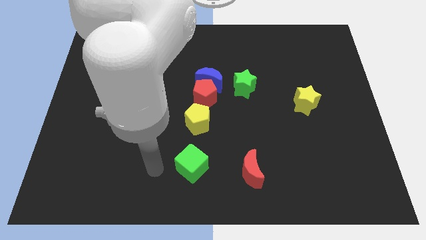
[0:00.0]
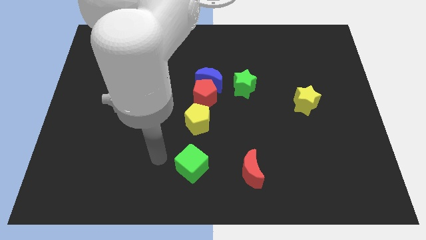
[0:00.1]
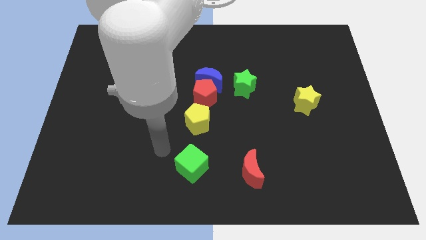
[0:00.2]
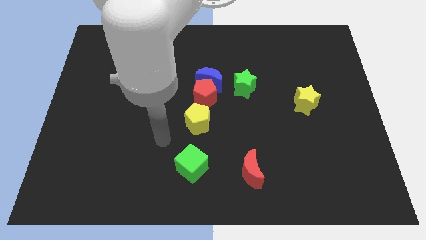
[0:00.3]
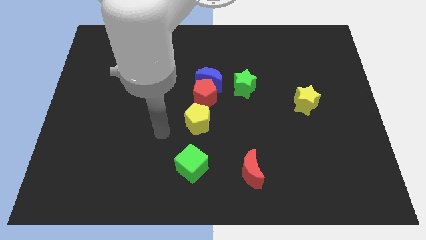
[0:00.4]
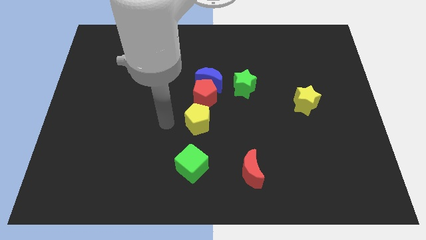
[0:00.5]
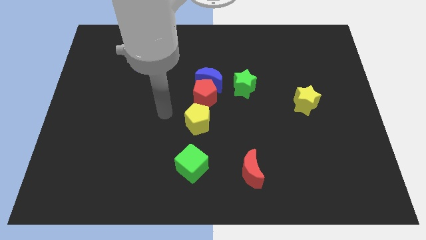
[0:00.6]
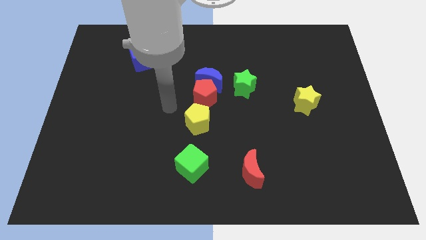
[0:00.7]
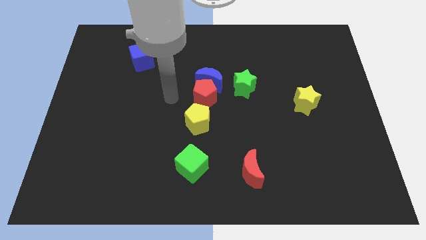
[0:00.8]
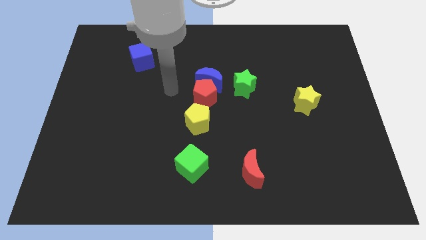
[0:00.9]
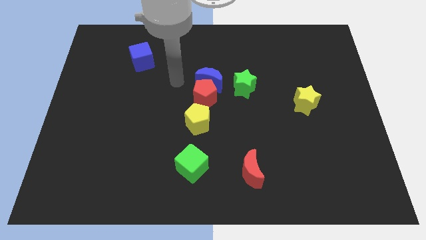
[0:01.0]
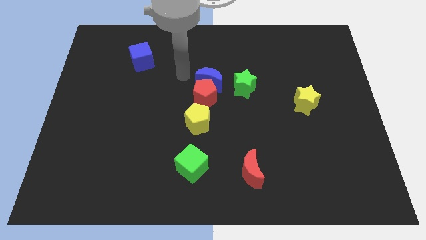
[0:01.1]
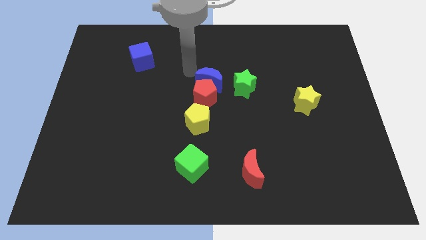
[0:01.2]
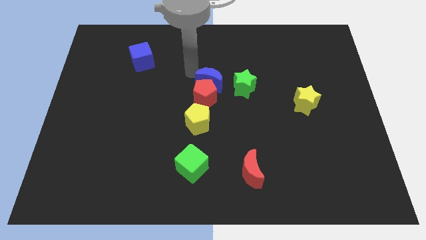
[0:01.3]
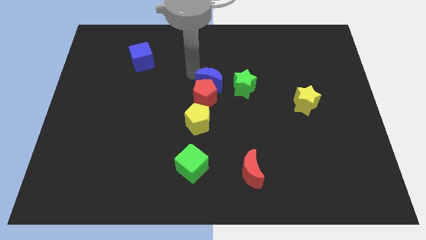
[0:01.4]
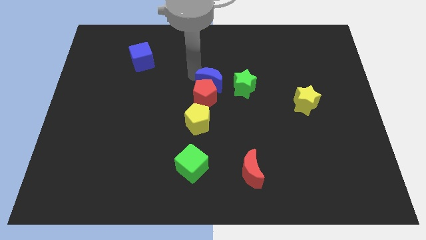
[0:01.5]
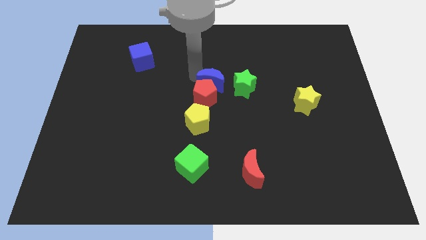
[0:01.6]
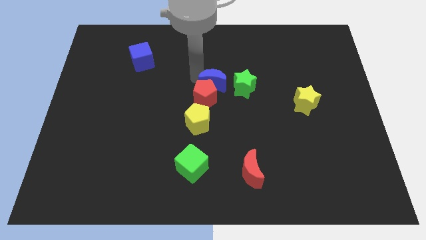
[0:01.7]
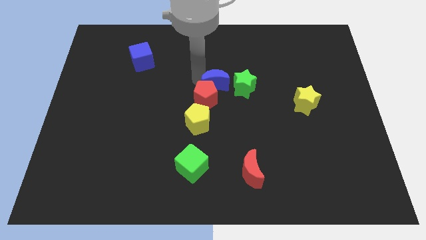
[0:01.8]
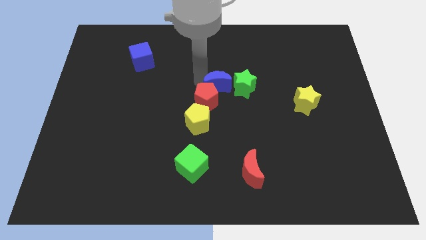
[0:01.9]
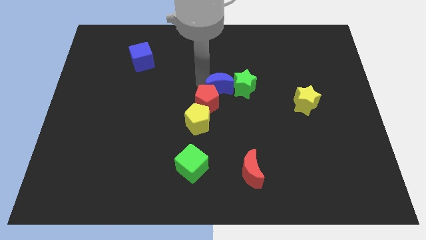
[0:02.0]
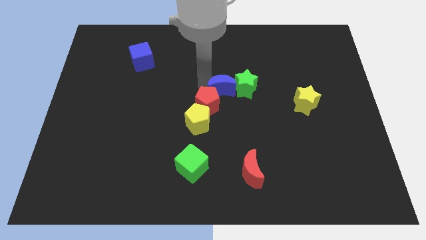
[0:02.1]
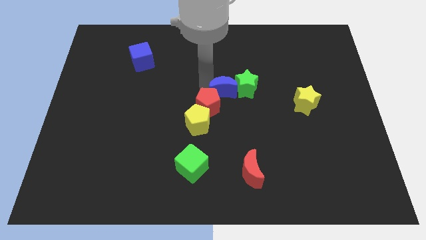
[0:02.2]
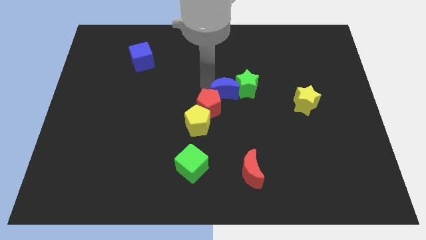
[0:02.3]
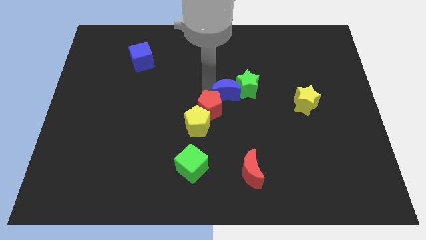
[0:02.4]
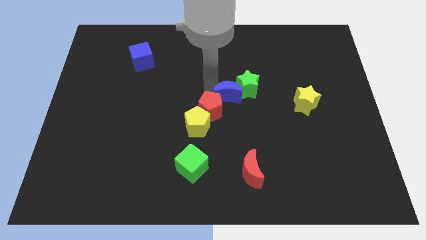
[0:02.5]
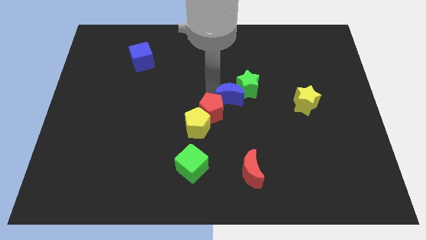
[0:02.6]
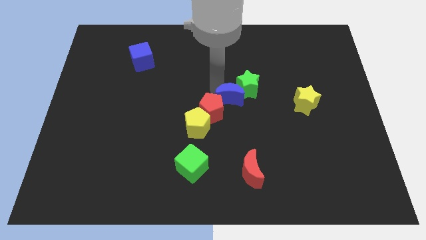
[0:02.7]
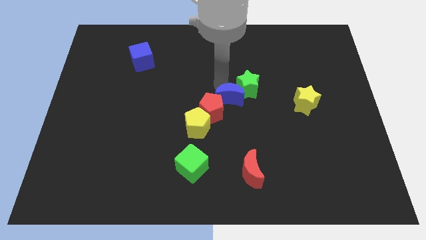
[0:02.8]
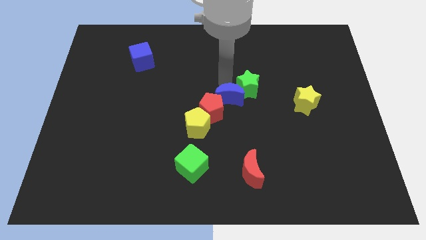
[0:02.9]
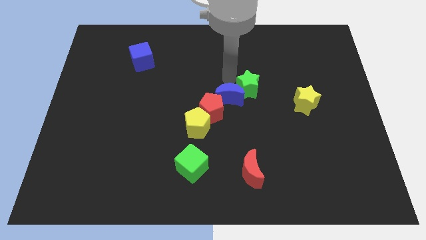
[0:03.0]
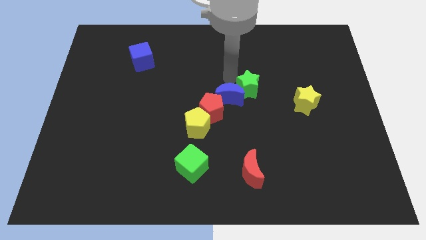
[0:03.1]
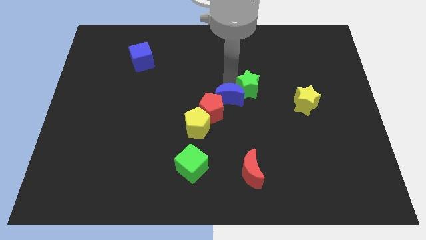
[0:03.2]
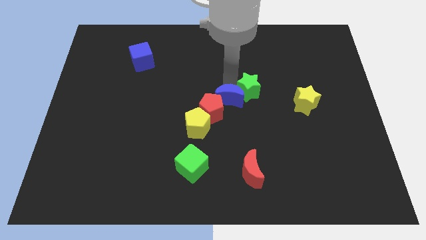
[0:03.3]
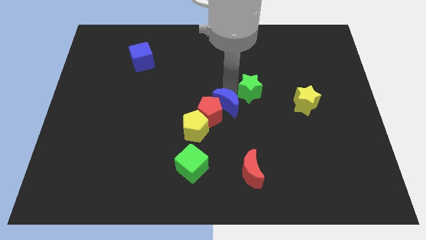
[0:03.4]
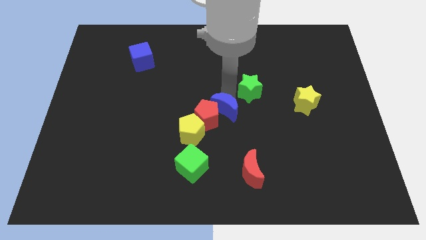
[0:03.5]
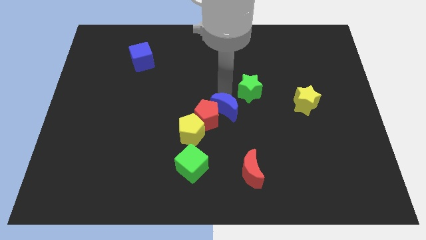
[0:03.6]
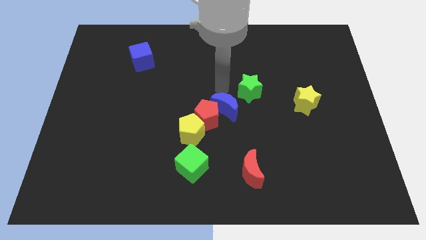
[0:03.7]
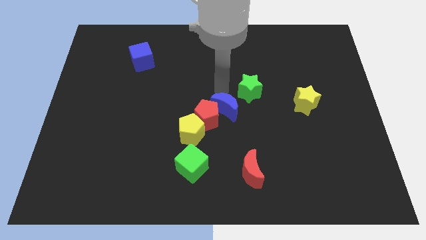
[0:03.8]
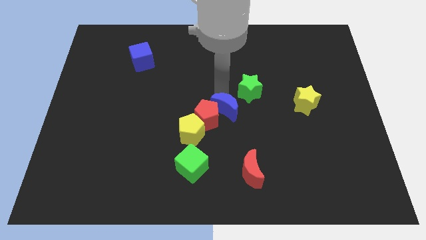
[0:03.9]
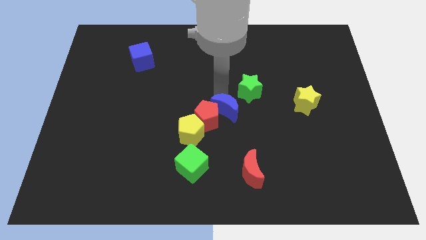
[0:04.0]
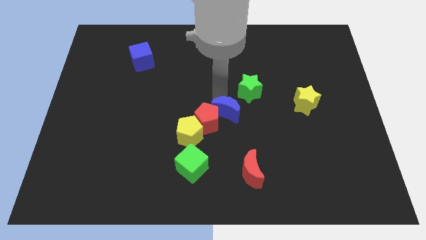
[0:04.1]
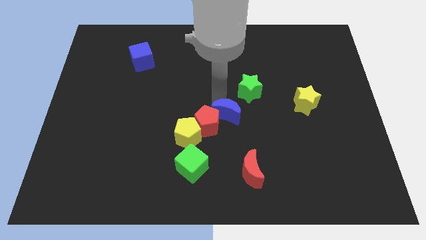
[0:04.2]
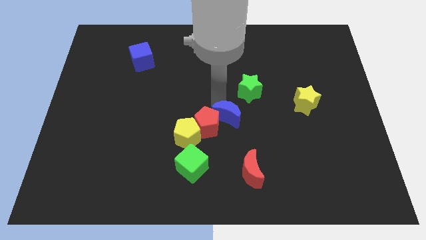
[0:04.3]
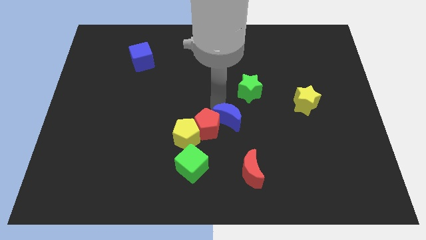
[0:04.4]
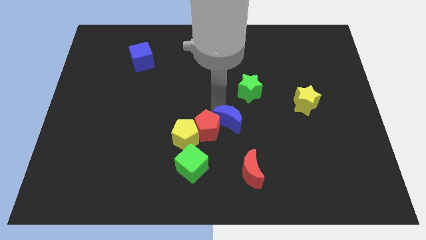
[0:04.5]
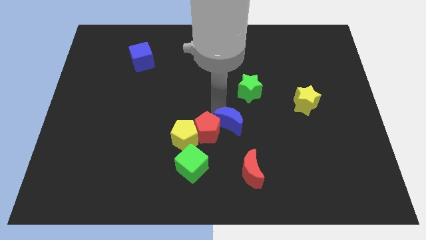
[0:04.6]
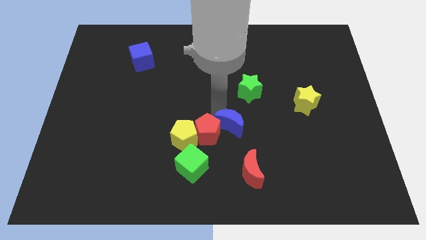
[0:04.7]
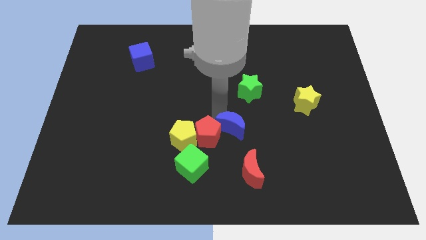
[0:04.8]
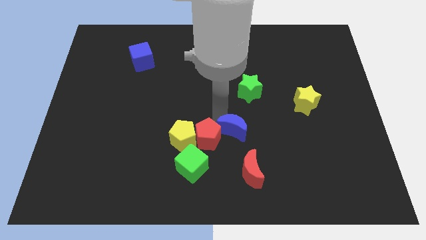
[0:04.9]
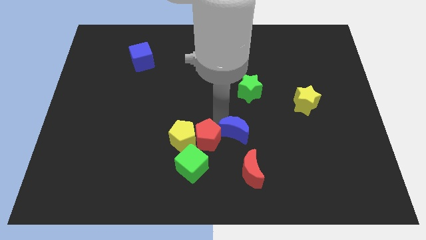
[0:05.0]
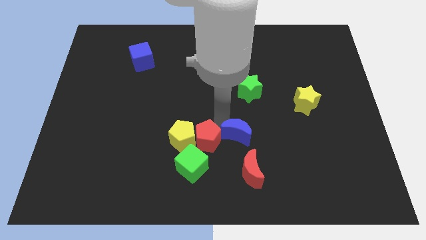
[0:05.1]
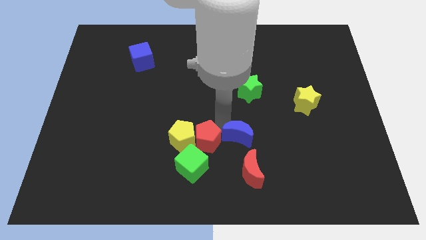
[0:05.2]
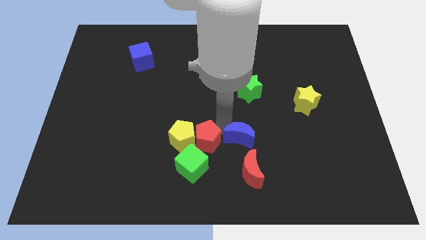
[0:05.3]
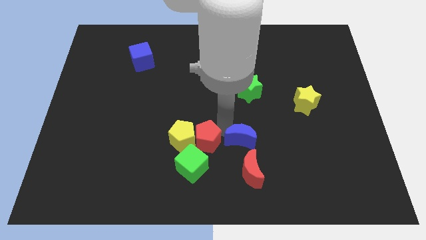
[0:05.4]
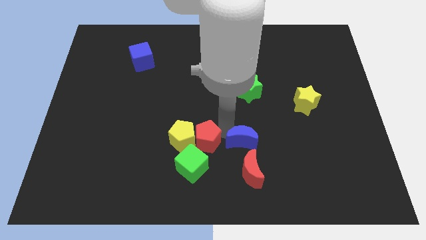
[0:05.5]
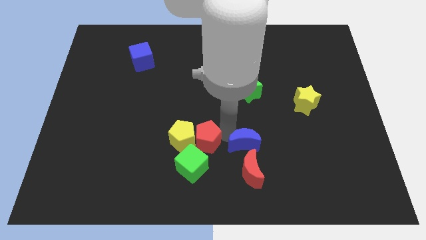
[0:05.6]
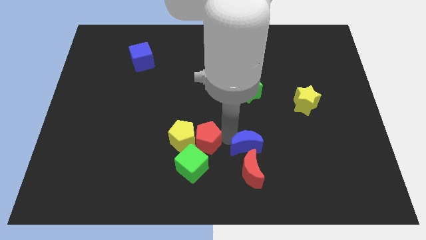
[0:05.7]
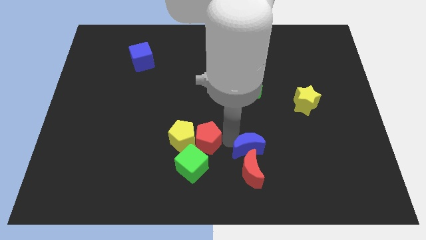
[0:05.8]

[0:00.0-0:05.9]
push the blue moon to the red moon

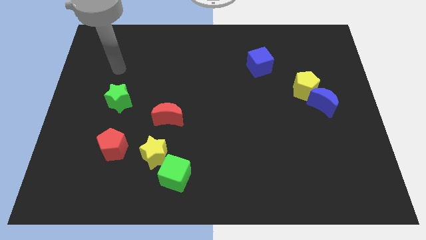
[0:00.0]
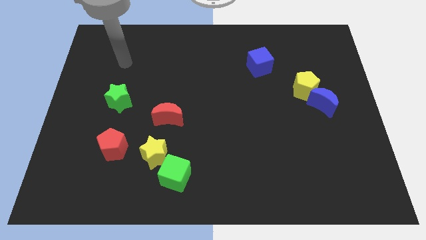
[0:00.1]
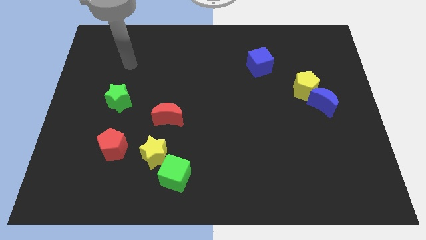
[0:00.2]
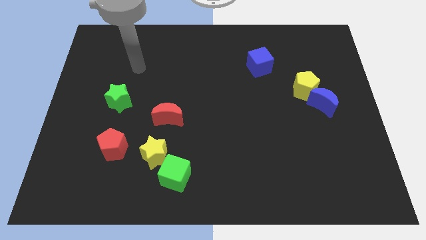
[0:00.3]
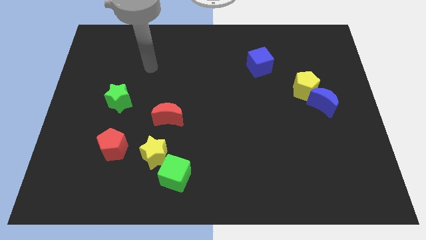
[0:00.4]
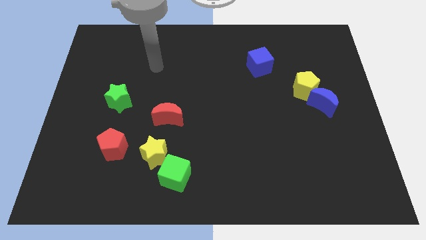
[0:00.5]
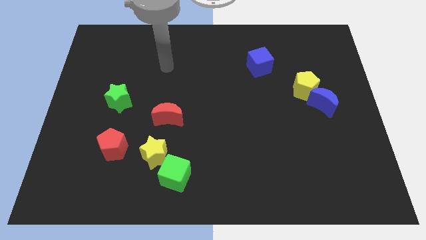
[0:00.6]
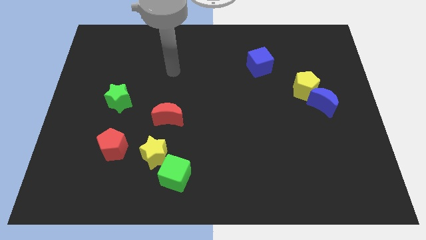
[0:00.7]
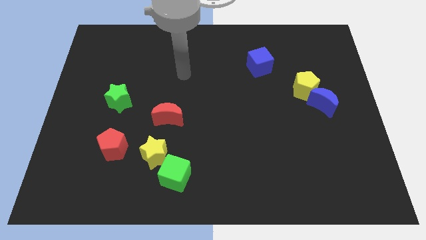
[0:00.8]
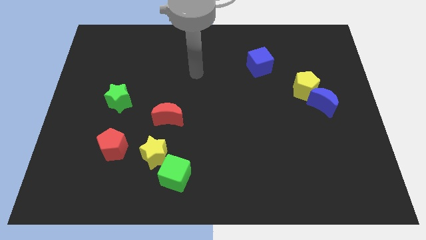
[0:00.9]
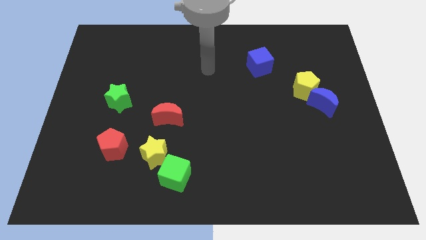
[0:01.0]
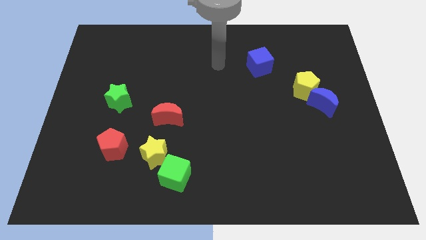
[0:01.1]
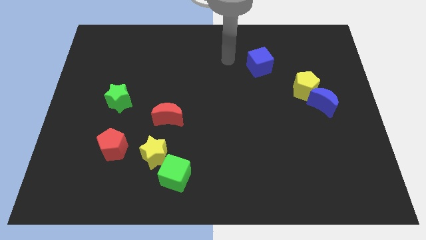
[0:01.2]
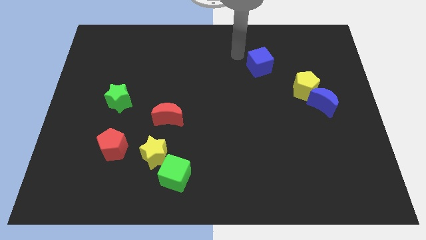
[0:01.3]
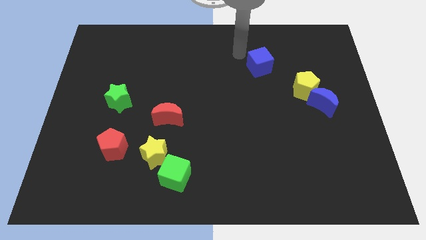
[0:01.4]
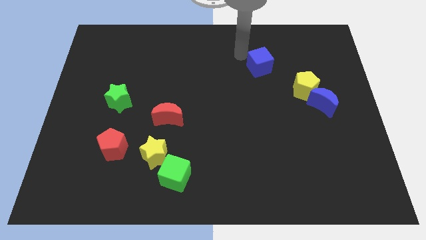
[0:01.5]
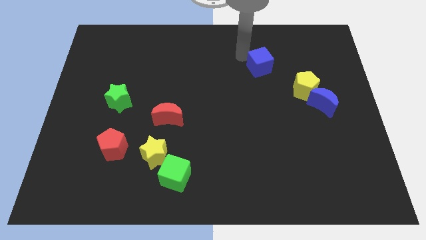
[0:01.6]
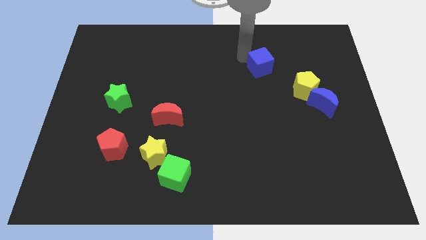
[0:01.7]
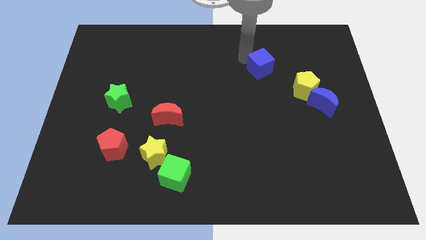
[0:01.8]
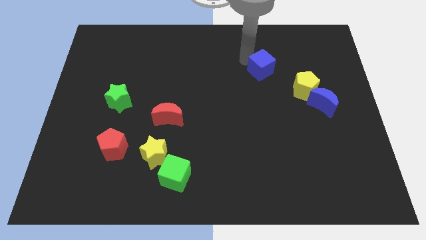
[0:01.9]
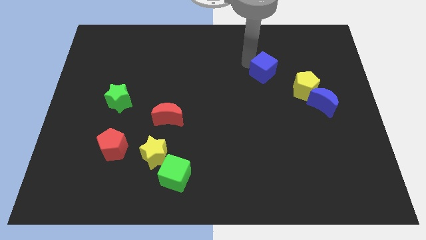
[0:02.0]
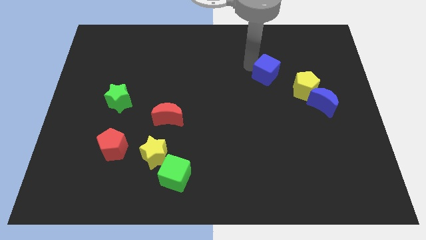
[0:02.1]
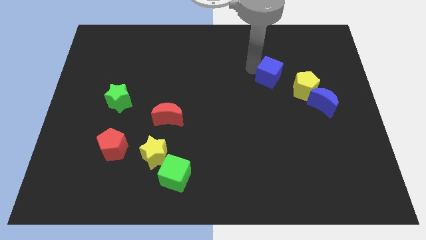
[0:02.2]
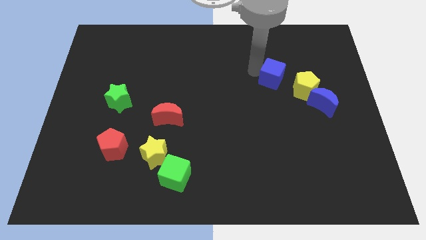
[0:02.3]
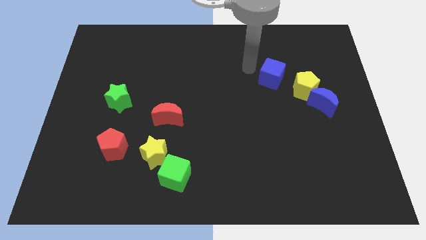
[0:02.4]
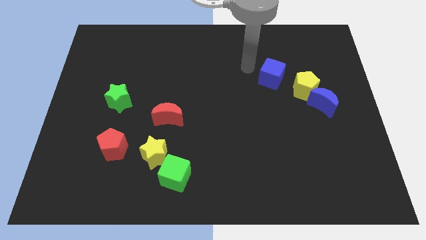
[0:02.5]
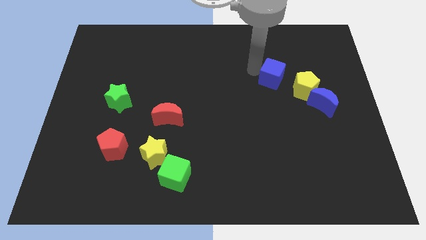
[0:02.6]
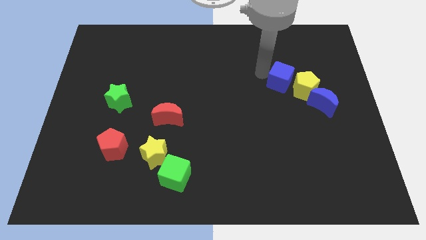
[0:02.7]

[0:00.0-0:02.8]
move the blue cube towards the yellow pentagon
